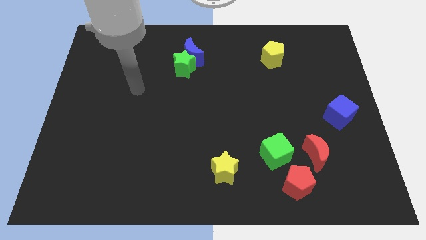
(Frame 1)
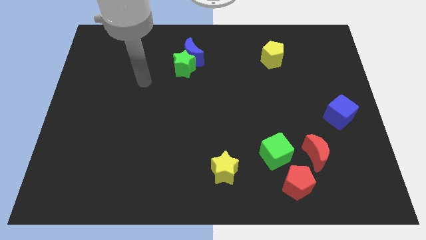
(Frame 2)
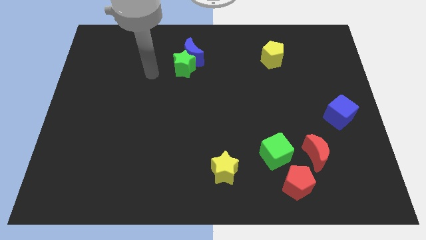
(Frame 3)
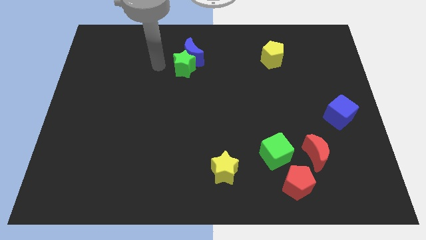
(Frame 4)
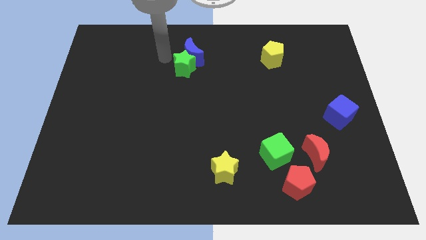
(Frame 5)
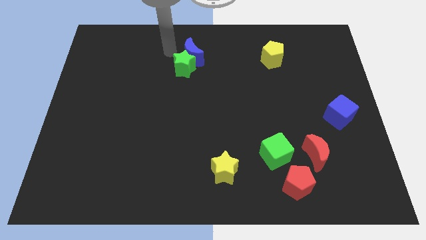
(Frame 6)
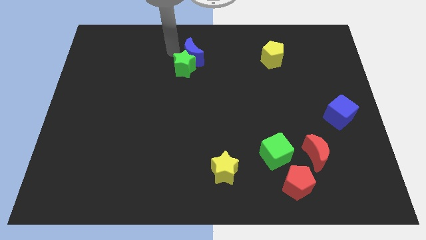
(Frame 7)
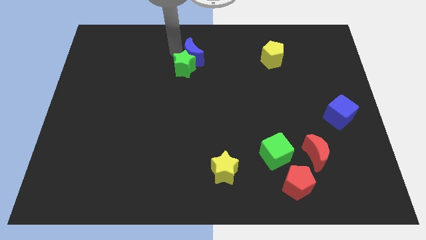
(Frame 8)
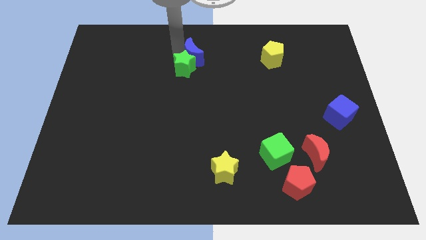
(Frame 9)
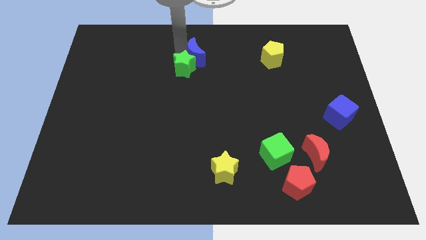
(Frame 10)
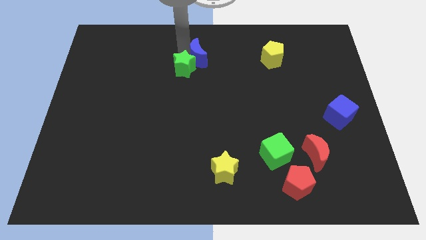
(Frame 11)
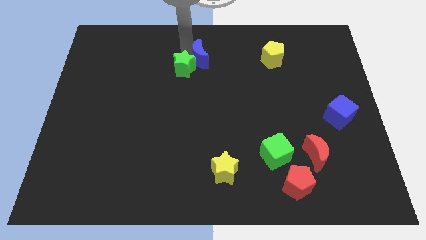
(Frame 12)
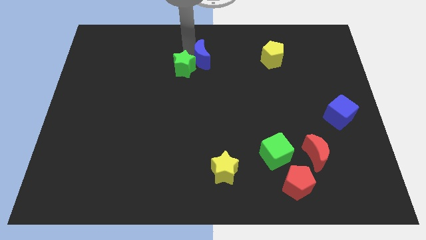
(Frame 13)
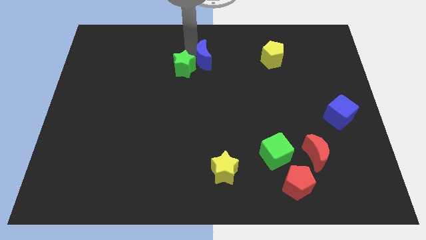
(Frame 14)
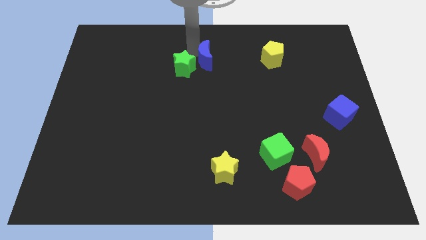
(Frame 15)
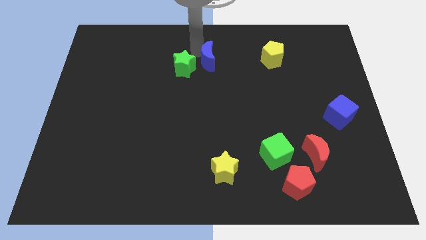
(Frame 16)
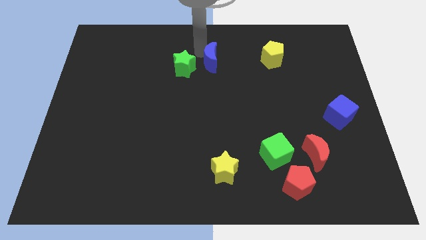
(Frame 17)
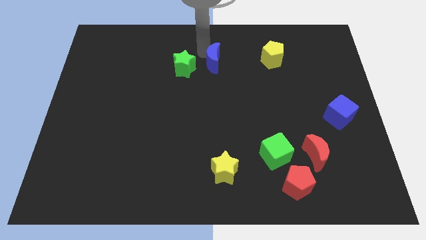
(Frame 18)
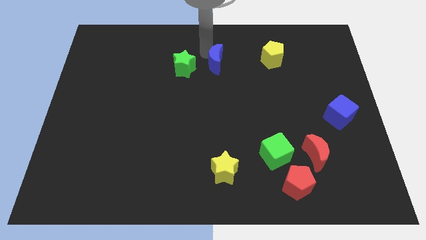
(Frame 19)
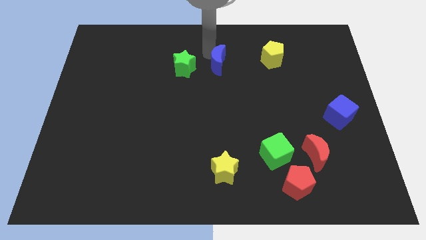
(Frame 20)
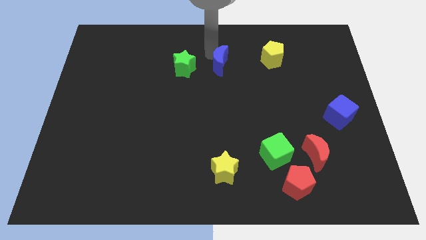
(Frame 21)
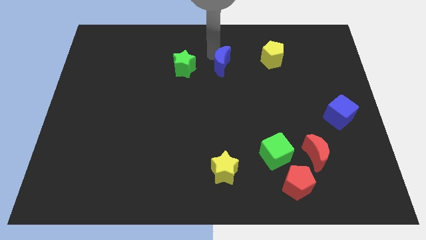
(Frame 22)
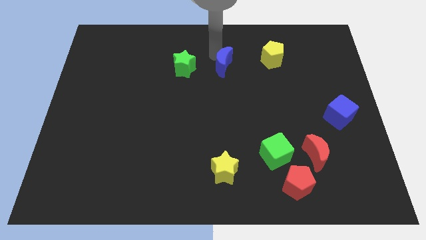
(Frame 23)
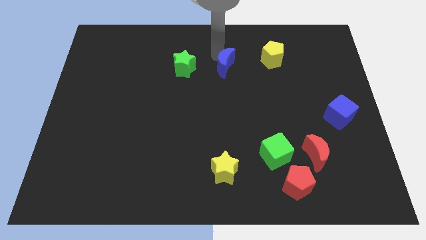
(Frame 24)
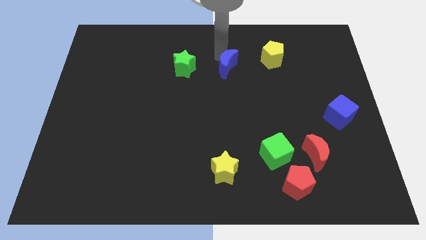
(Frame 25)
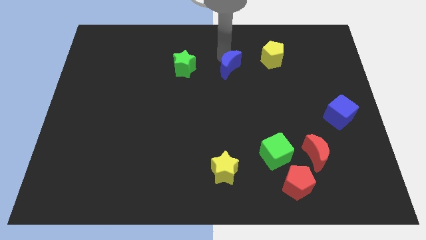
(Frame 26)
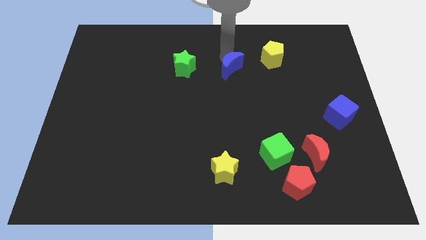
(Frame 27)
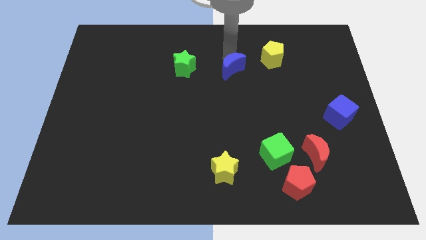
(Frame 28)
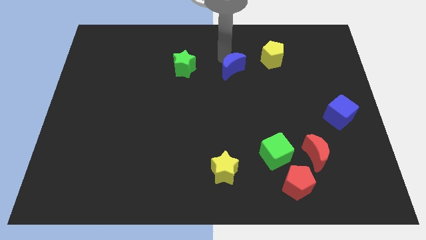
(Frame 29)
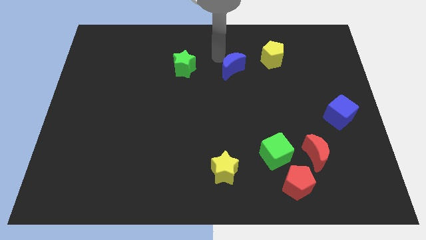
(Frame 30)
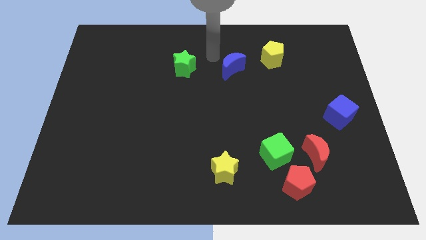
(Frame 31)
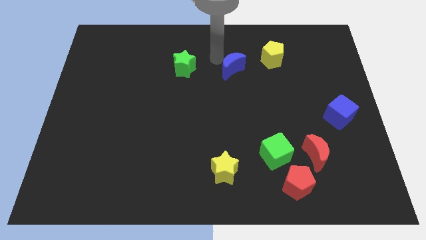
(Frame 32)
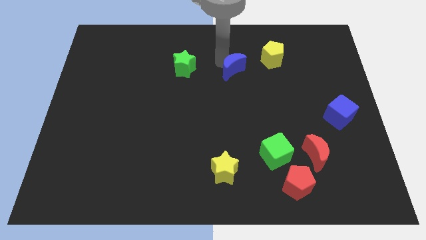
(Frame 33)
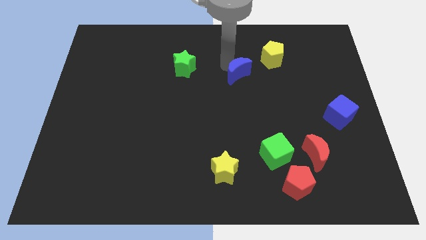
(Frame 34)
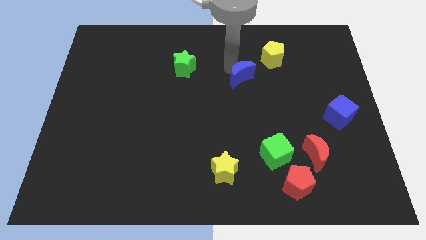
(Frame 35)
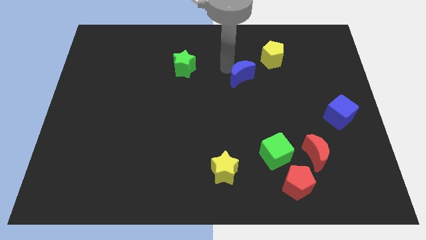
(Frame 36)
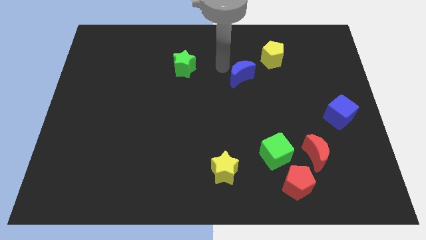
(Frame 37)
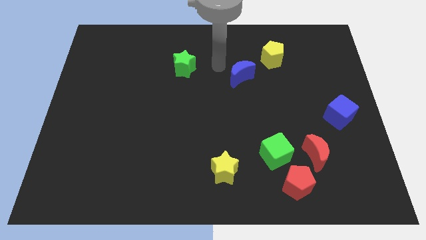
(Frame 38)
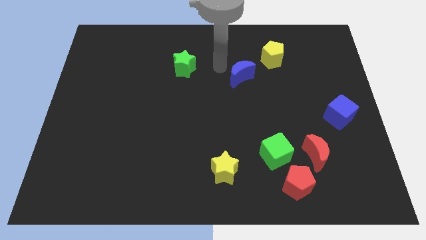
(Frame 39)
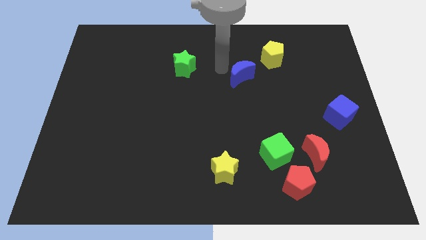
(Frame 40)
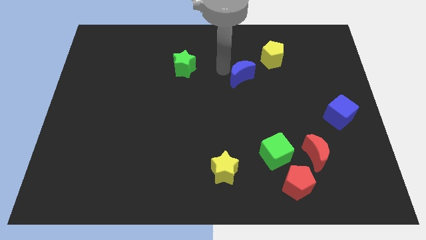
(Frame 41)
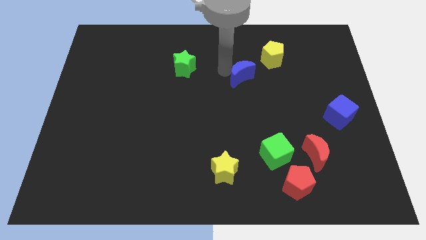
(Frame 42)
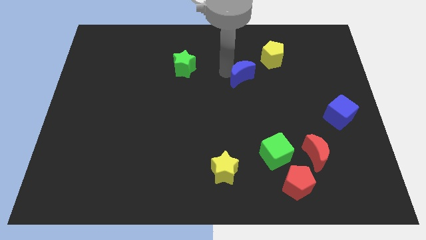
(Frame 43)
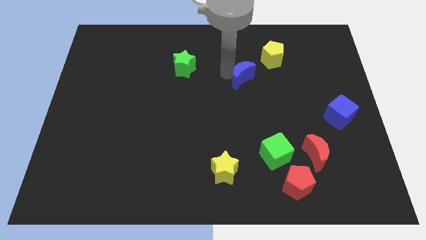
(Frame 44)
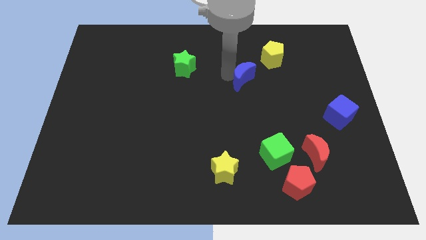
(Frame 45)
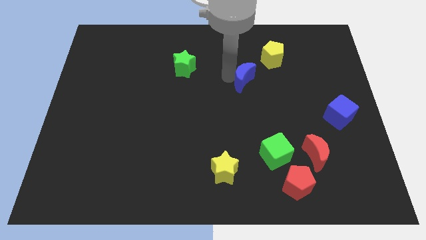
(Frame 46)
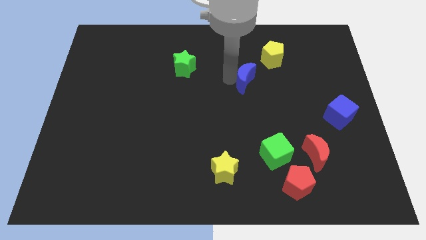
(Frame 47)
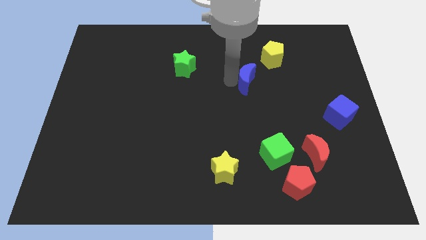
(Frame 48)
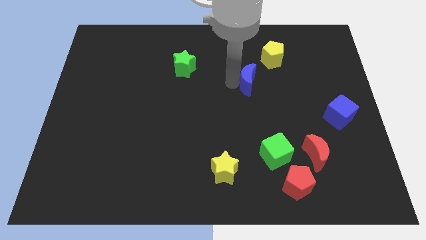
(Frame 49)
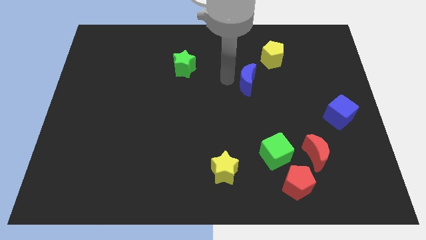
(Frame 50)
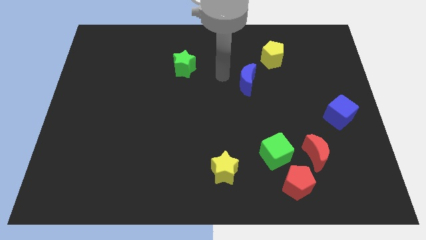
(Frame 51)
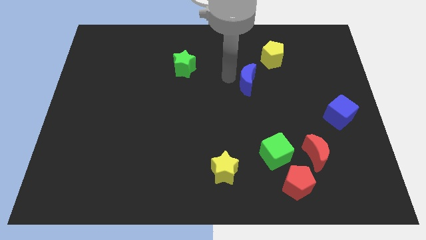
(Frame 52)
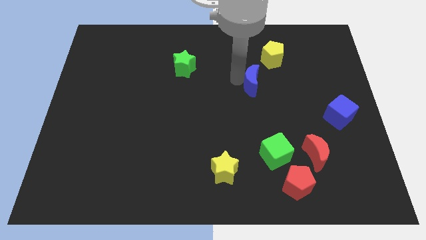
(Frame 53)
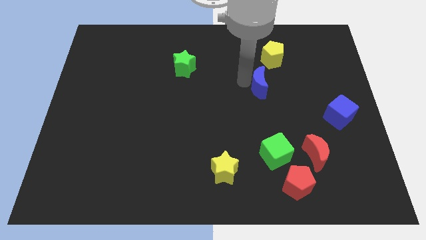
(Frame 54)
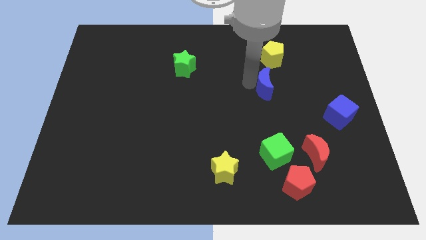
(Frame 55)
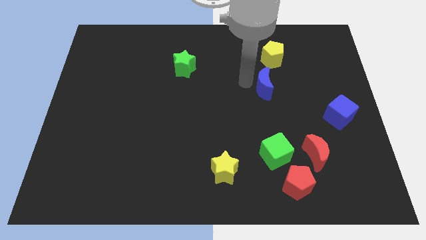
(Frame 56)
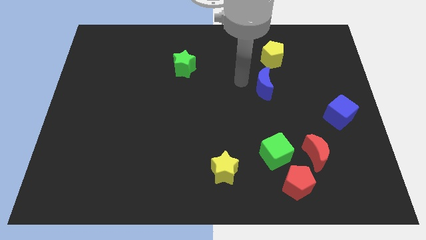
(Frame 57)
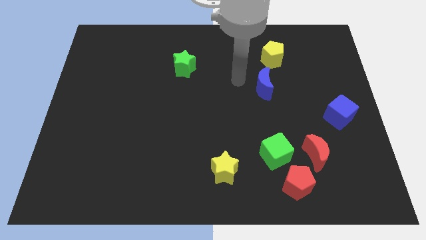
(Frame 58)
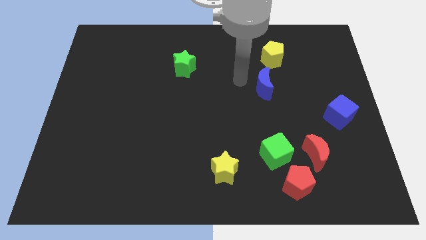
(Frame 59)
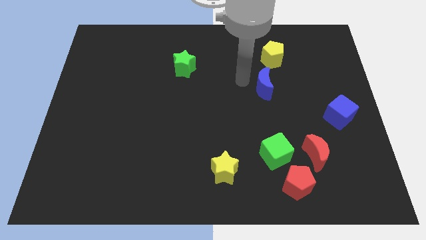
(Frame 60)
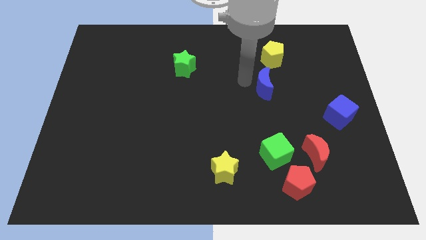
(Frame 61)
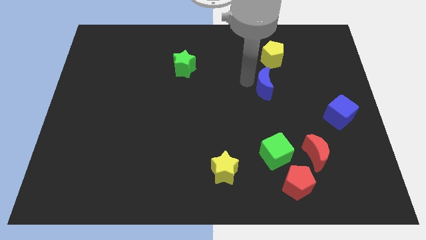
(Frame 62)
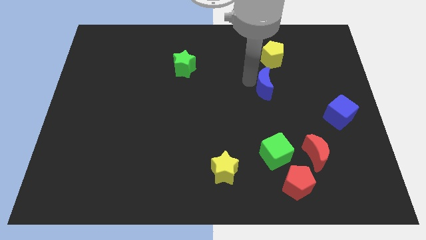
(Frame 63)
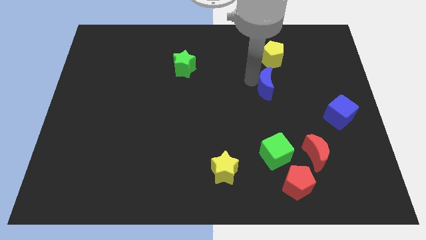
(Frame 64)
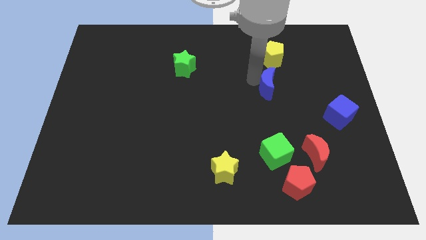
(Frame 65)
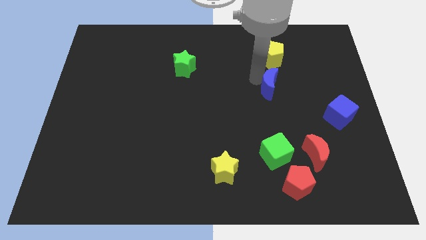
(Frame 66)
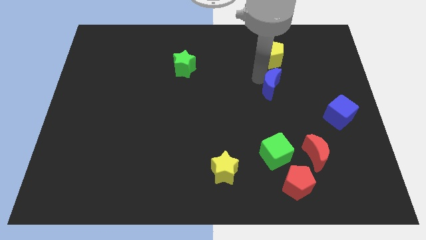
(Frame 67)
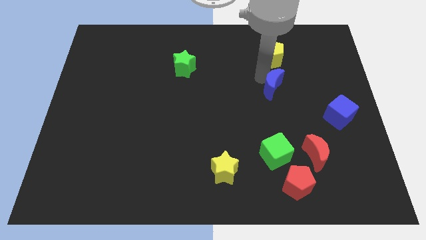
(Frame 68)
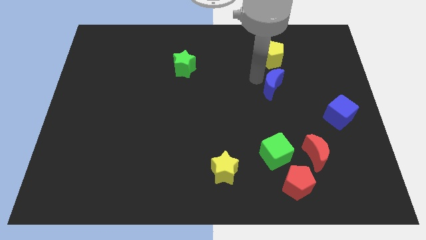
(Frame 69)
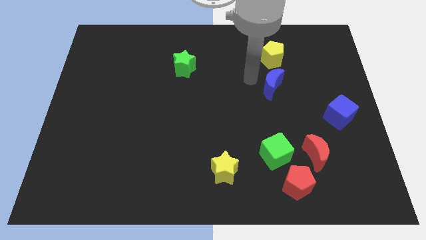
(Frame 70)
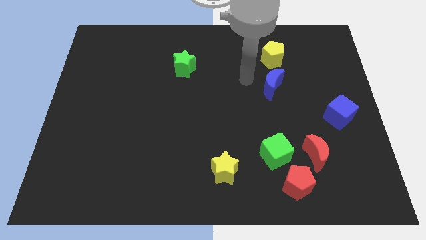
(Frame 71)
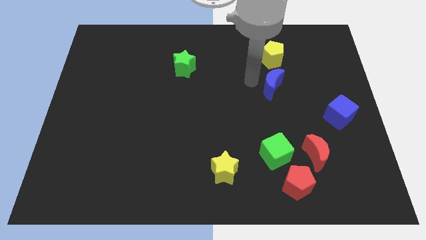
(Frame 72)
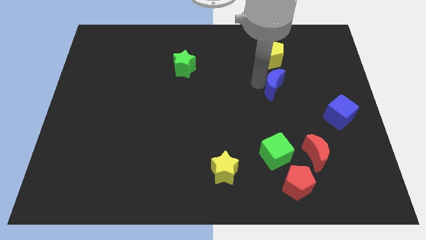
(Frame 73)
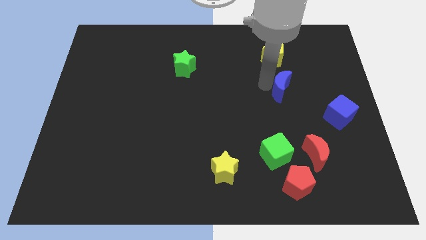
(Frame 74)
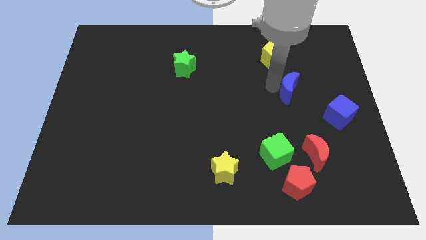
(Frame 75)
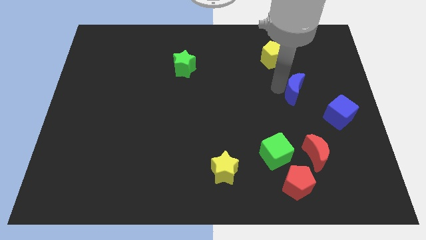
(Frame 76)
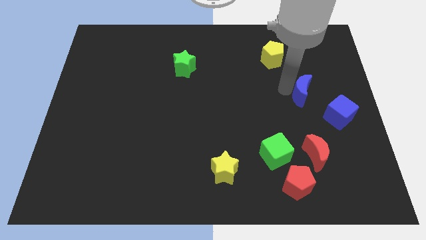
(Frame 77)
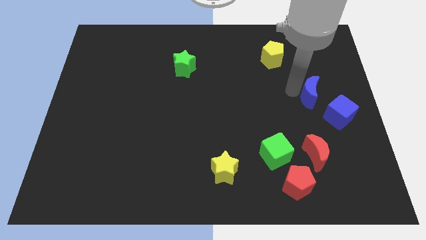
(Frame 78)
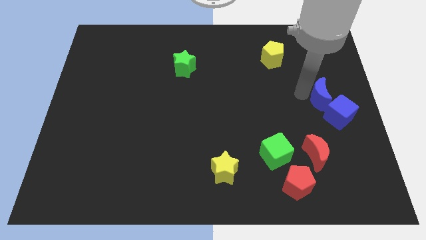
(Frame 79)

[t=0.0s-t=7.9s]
slide the blue moon to the right side
